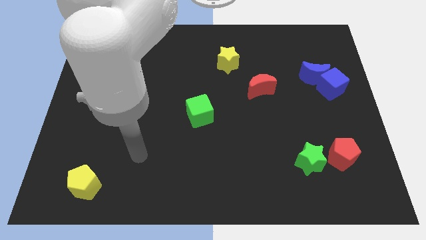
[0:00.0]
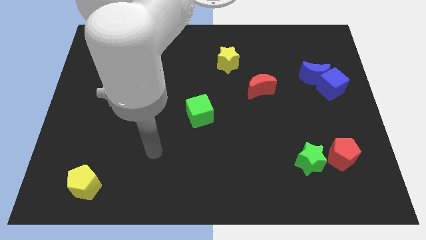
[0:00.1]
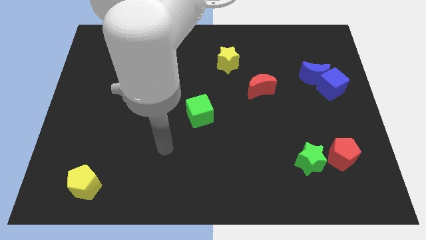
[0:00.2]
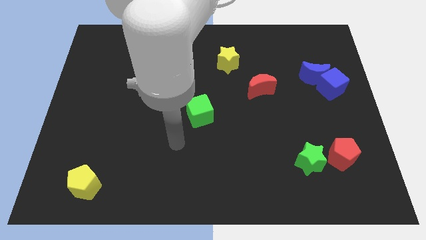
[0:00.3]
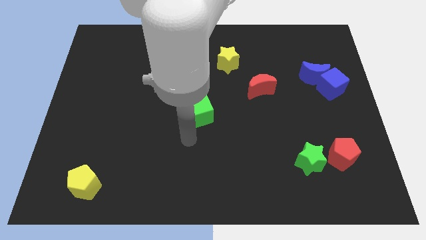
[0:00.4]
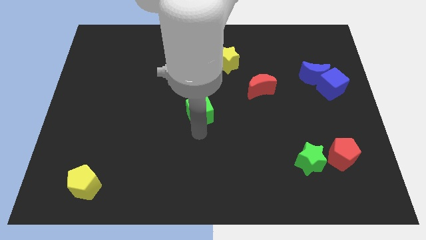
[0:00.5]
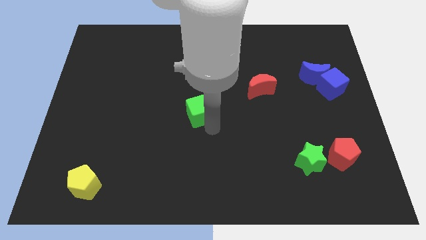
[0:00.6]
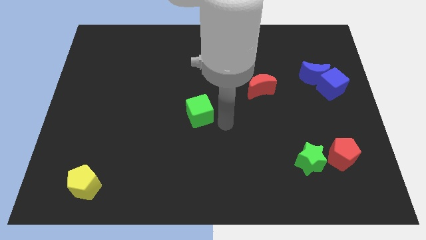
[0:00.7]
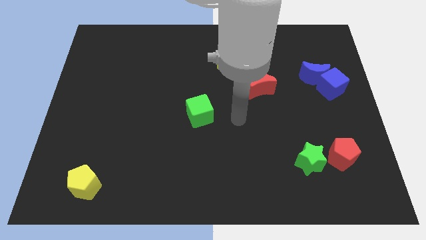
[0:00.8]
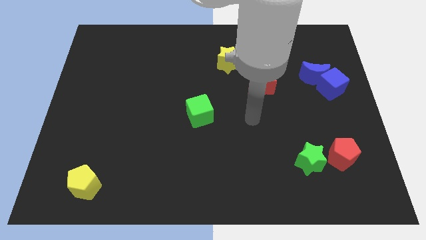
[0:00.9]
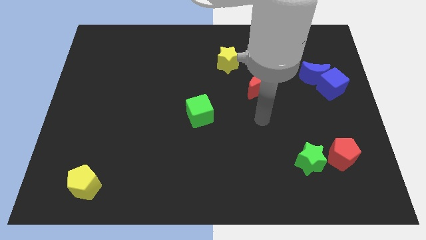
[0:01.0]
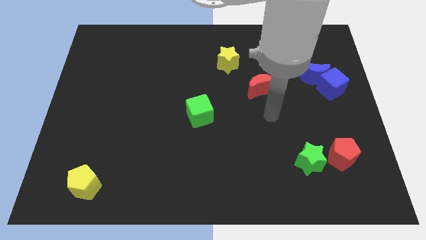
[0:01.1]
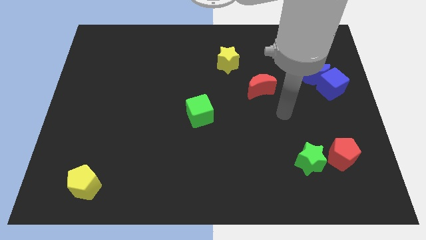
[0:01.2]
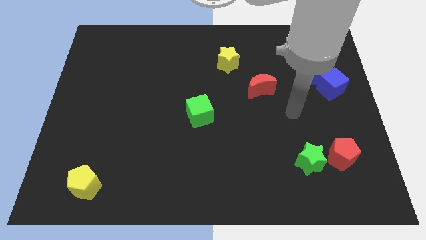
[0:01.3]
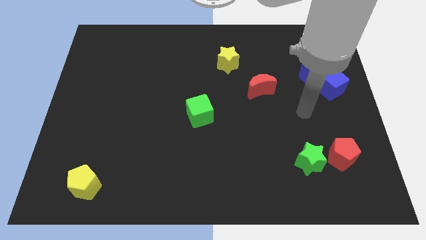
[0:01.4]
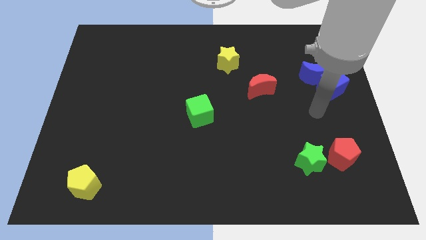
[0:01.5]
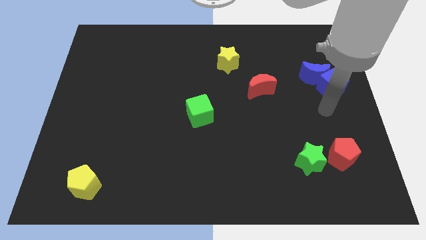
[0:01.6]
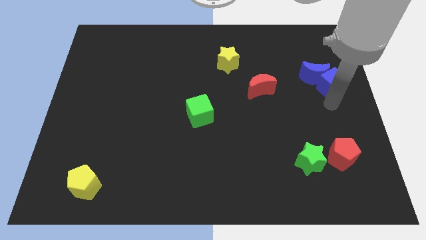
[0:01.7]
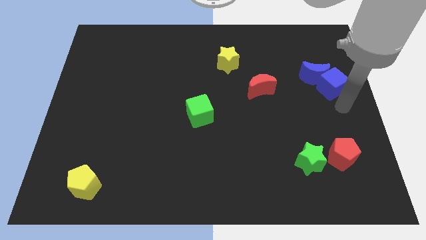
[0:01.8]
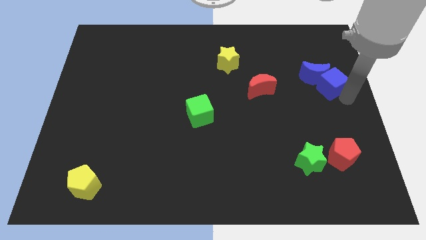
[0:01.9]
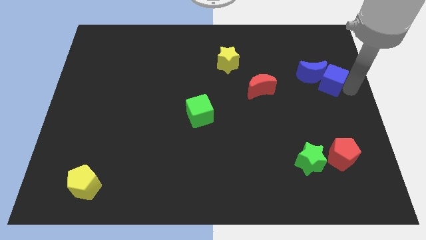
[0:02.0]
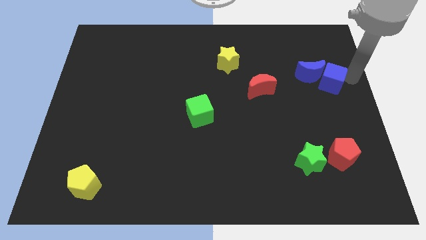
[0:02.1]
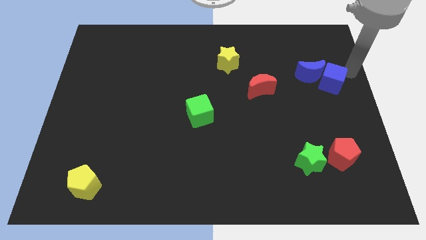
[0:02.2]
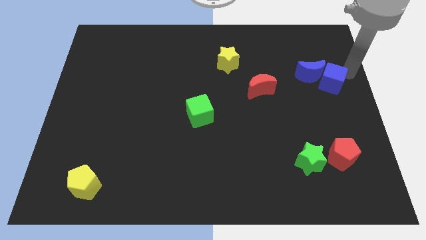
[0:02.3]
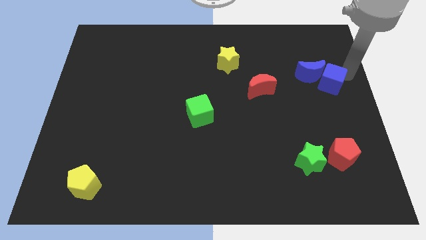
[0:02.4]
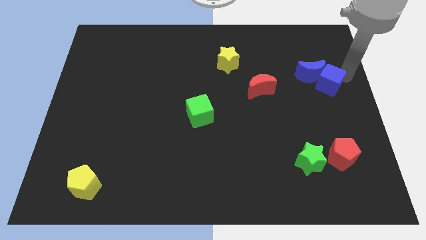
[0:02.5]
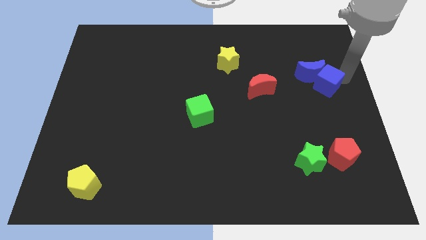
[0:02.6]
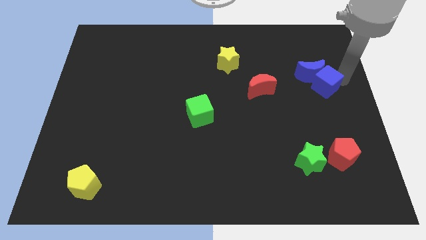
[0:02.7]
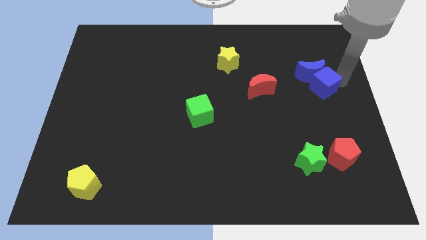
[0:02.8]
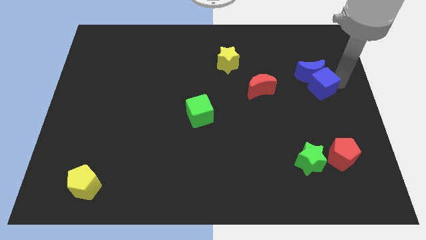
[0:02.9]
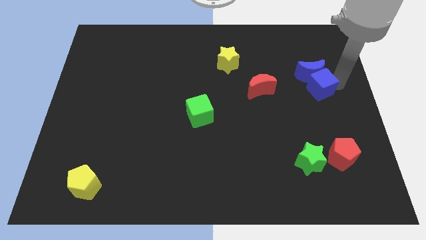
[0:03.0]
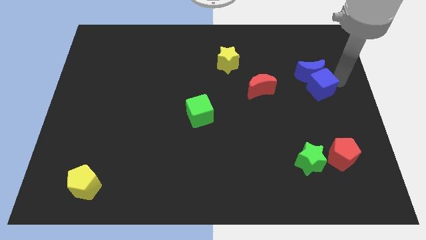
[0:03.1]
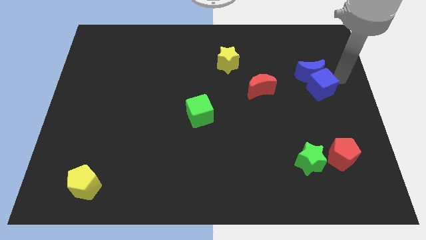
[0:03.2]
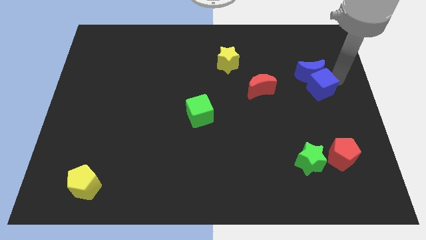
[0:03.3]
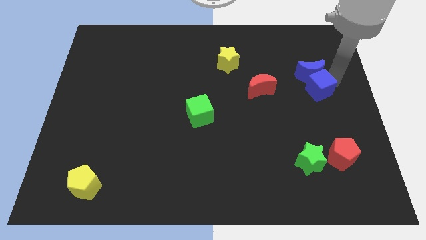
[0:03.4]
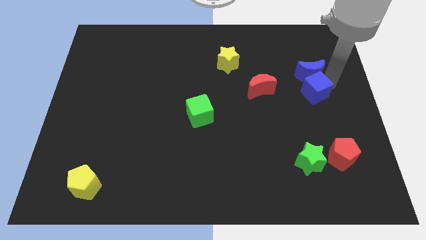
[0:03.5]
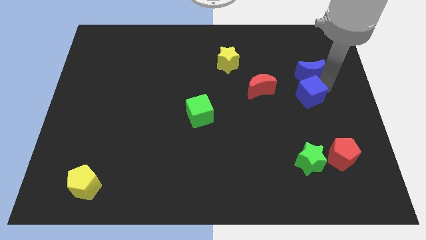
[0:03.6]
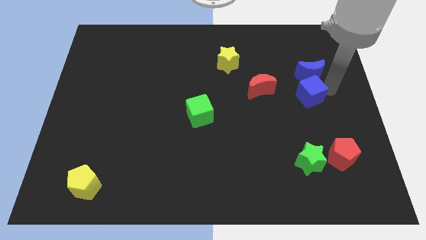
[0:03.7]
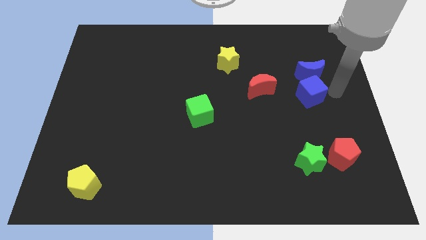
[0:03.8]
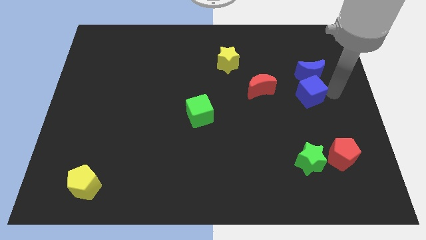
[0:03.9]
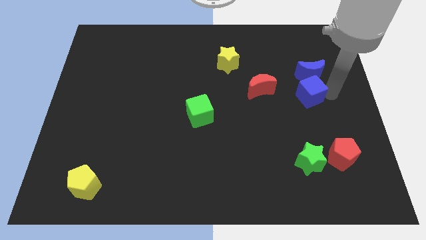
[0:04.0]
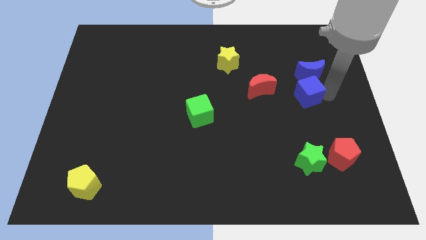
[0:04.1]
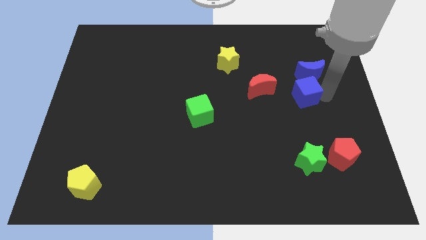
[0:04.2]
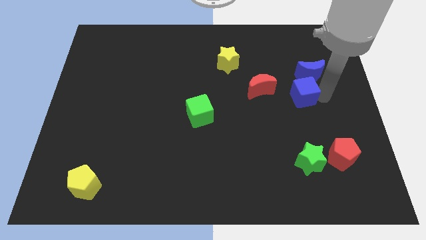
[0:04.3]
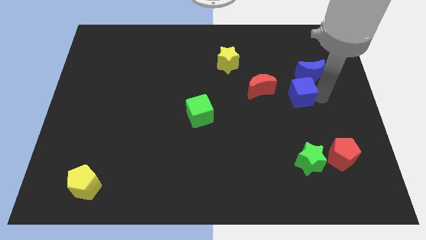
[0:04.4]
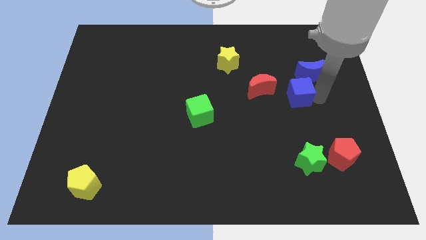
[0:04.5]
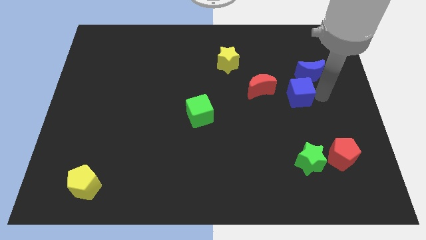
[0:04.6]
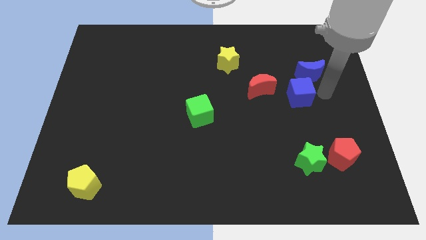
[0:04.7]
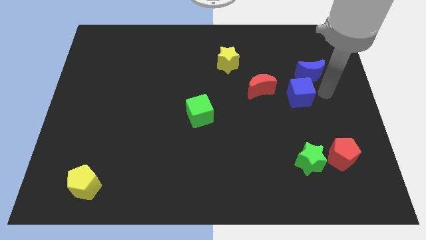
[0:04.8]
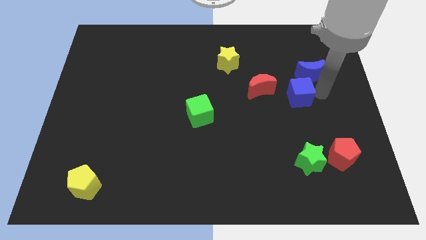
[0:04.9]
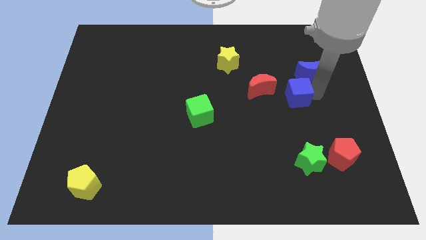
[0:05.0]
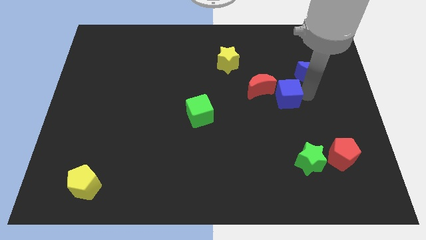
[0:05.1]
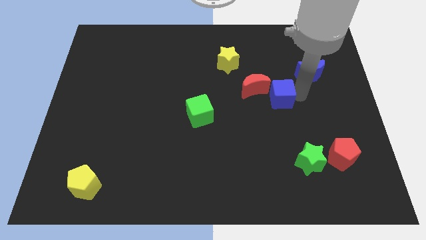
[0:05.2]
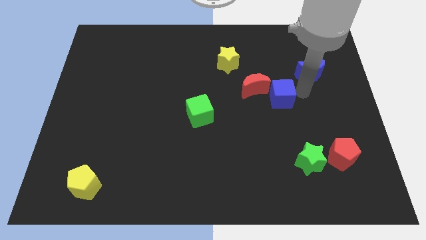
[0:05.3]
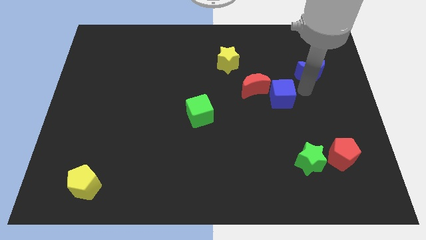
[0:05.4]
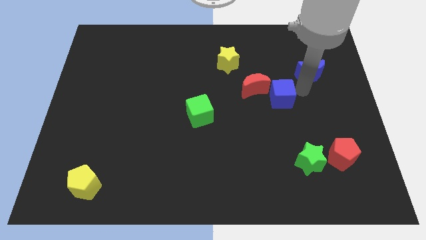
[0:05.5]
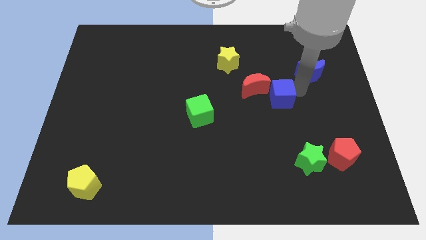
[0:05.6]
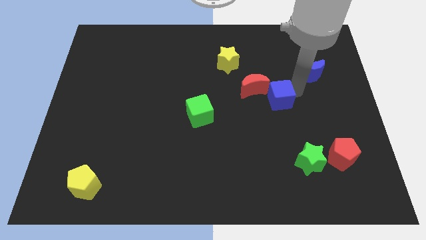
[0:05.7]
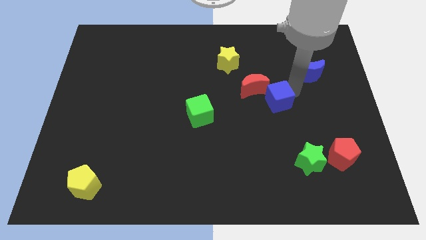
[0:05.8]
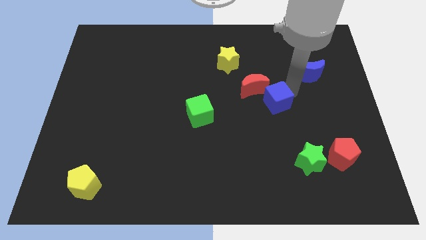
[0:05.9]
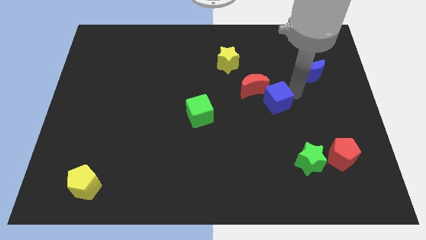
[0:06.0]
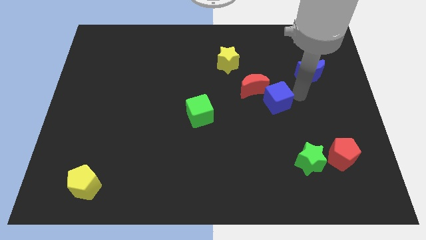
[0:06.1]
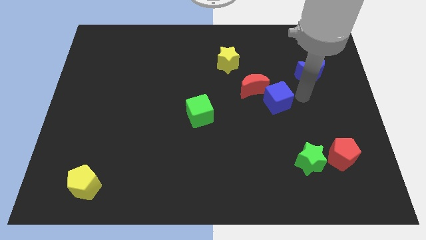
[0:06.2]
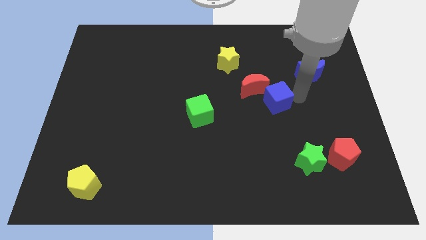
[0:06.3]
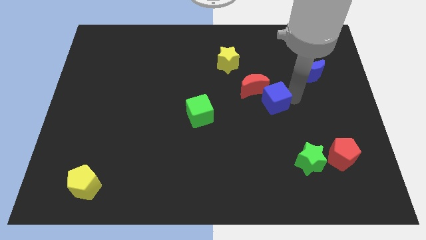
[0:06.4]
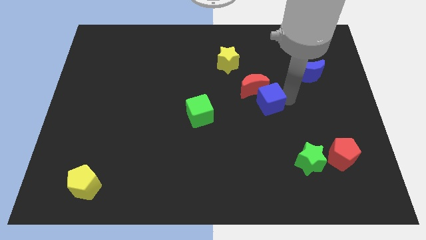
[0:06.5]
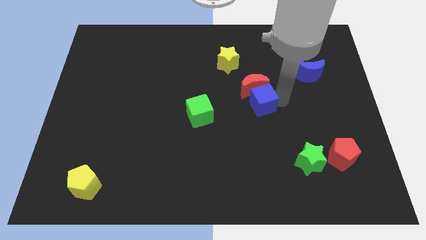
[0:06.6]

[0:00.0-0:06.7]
move the blue cube to the center of the board
